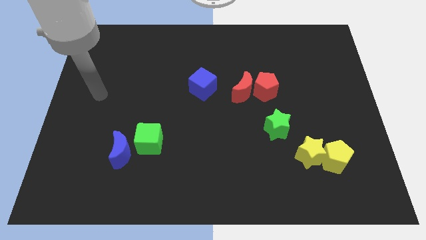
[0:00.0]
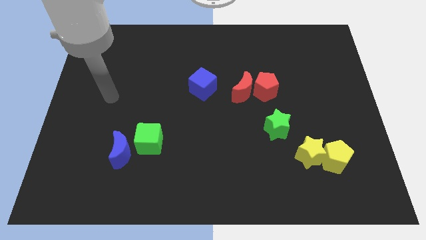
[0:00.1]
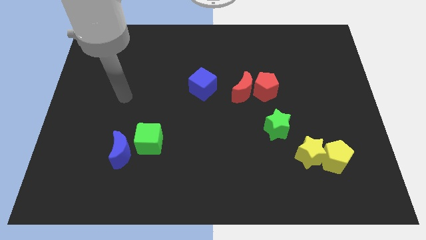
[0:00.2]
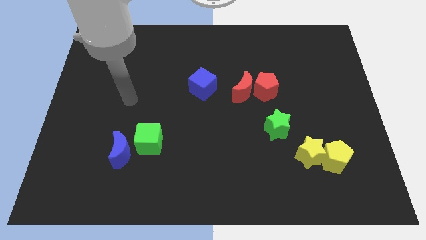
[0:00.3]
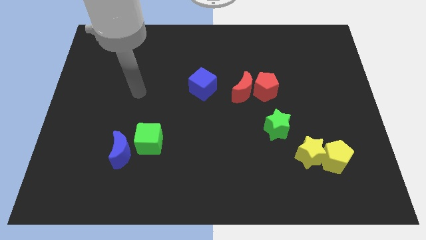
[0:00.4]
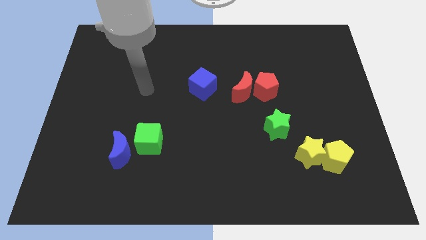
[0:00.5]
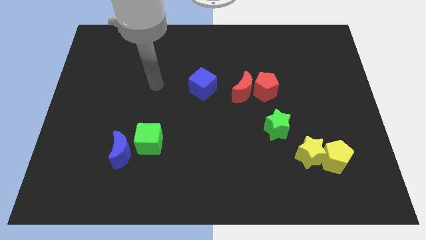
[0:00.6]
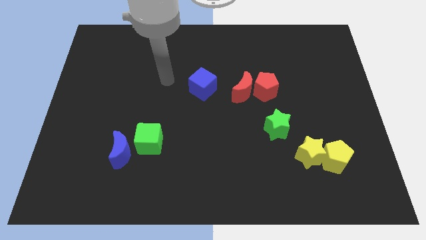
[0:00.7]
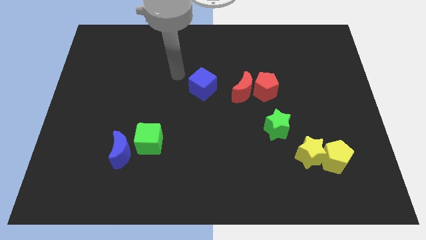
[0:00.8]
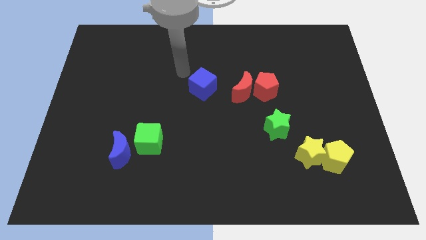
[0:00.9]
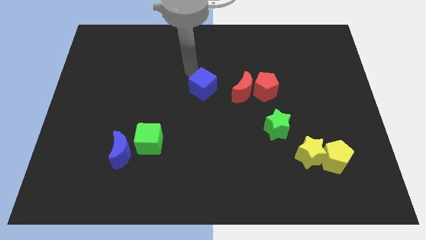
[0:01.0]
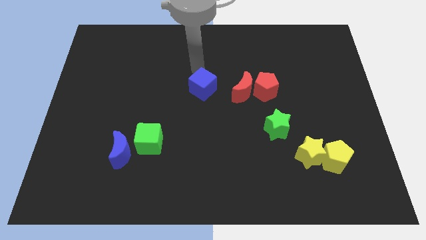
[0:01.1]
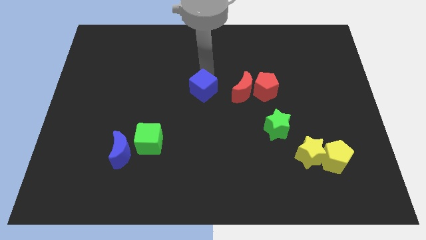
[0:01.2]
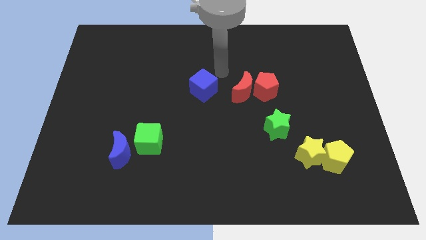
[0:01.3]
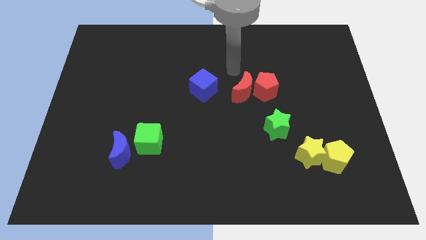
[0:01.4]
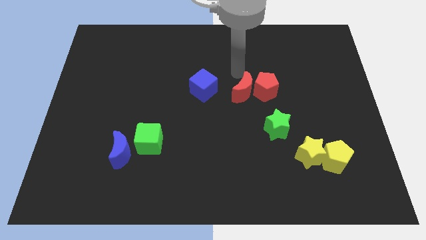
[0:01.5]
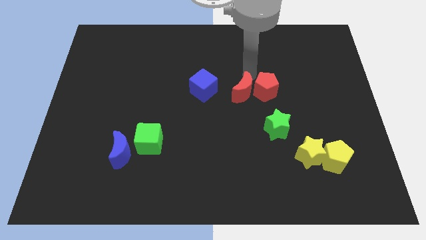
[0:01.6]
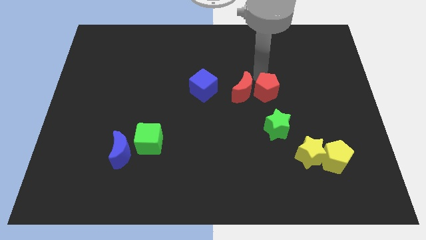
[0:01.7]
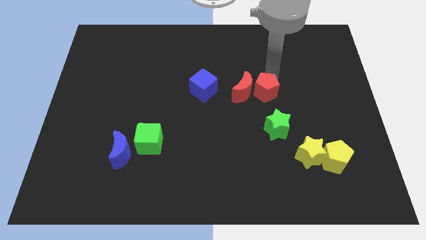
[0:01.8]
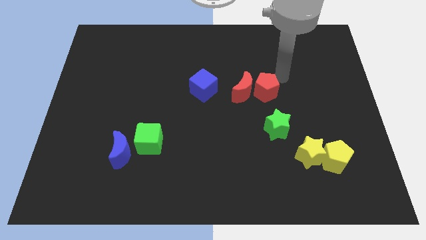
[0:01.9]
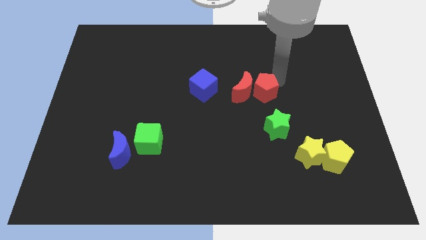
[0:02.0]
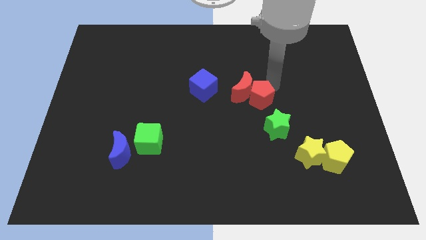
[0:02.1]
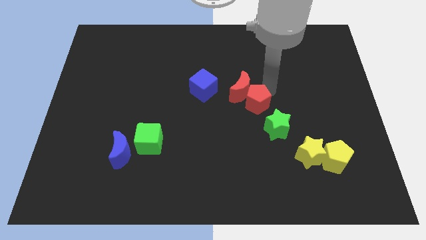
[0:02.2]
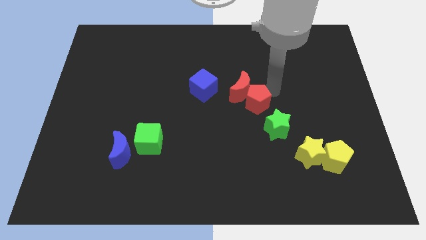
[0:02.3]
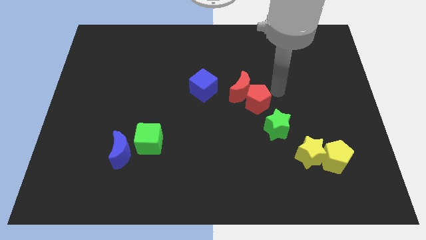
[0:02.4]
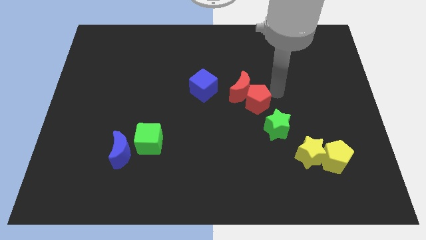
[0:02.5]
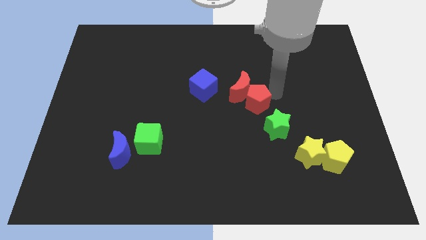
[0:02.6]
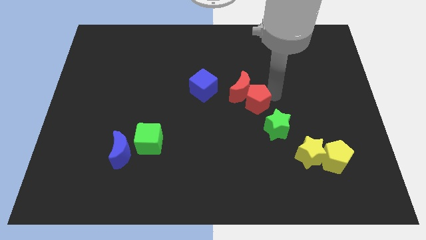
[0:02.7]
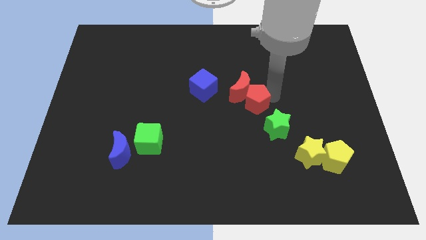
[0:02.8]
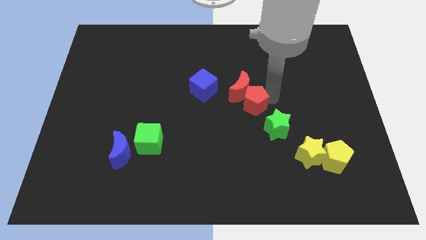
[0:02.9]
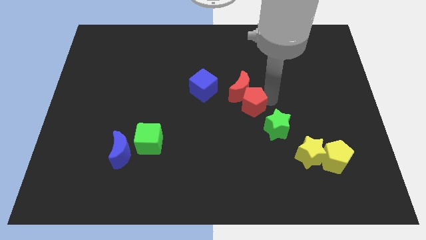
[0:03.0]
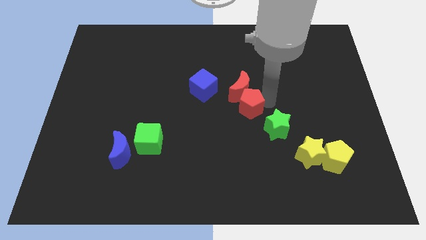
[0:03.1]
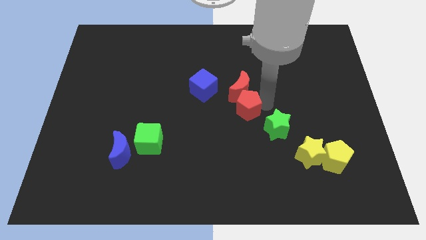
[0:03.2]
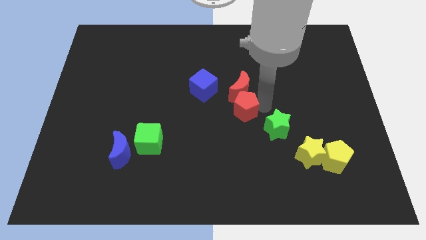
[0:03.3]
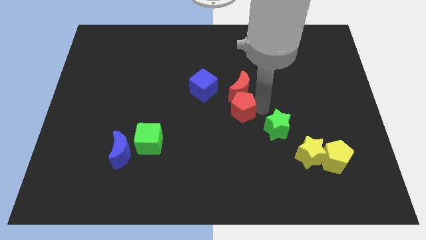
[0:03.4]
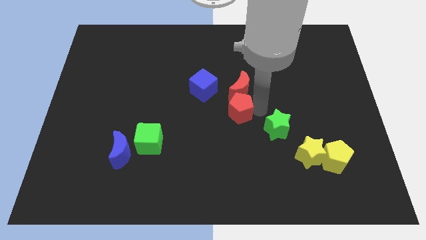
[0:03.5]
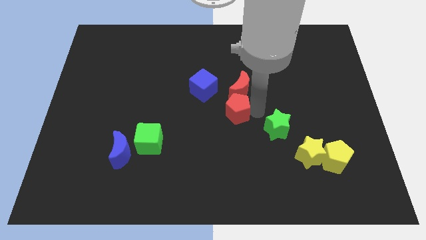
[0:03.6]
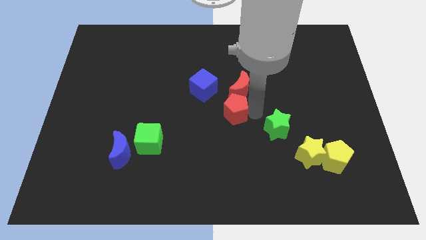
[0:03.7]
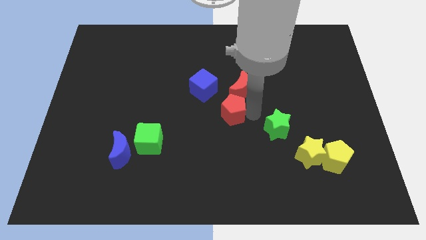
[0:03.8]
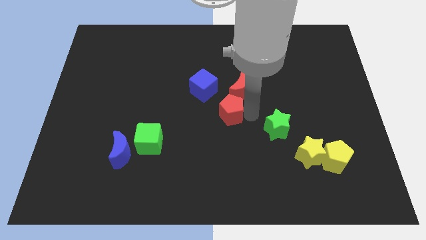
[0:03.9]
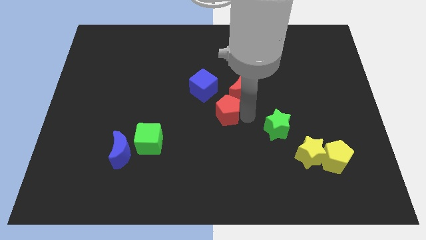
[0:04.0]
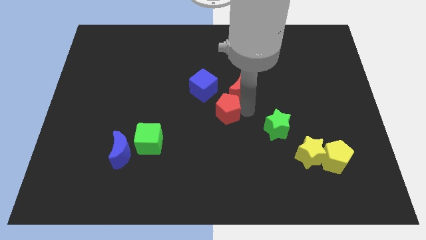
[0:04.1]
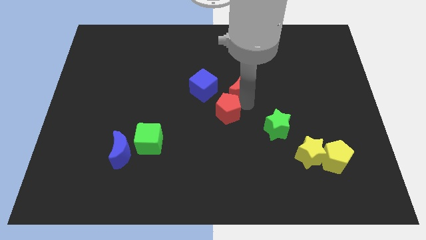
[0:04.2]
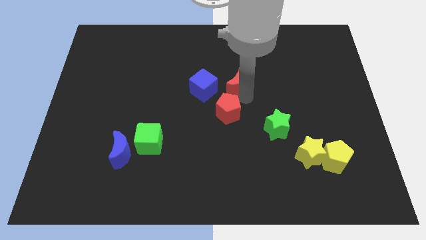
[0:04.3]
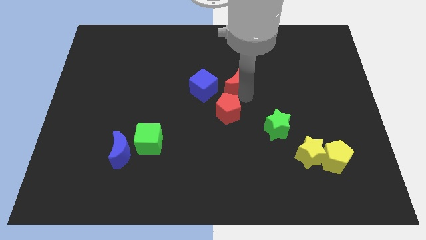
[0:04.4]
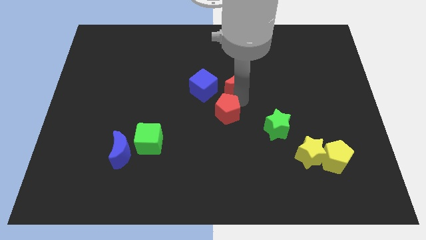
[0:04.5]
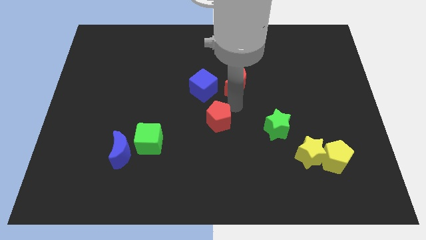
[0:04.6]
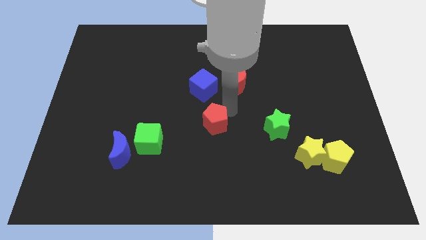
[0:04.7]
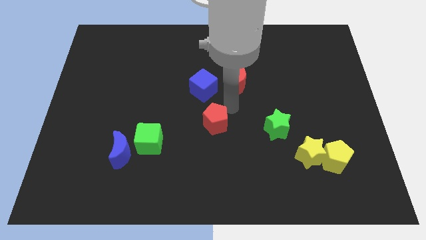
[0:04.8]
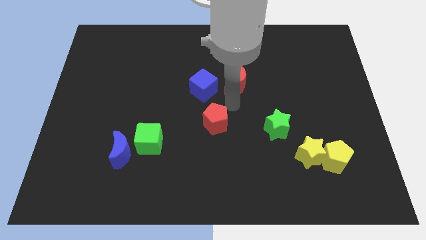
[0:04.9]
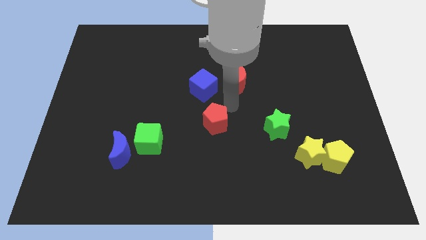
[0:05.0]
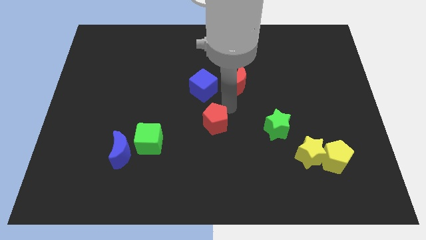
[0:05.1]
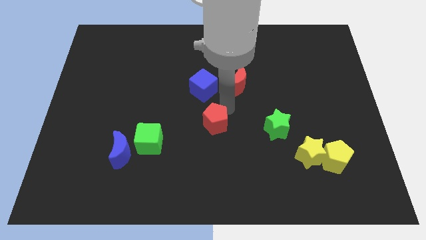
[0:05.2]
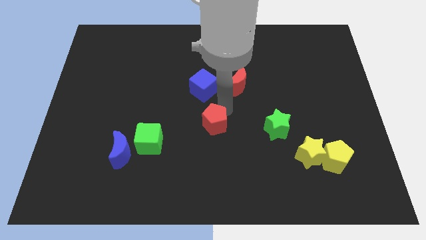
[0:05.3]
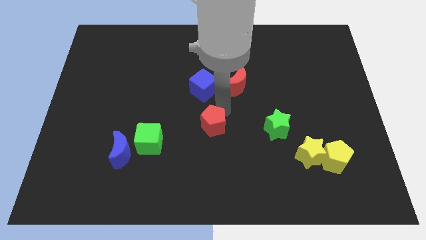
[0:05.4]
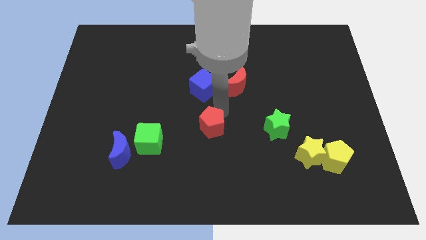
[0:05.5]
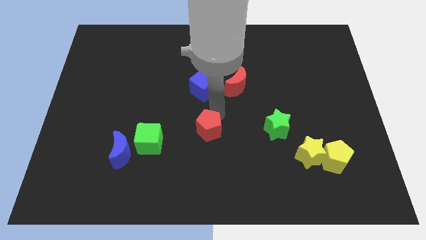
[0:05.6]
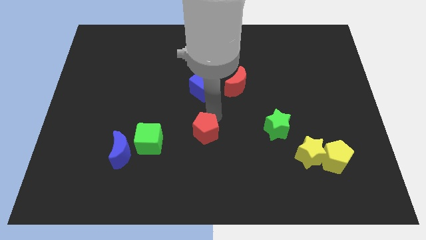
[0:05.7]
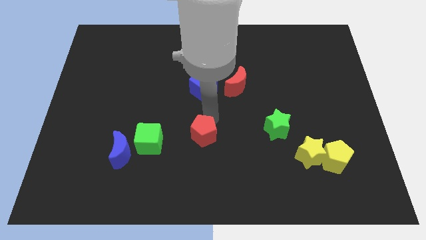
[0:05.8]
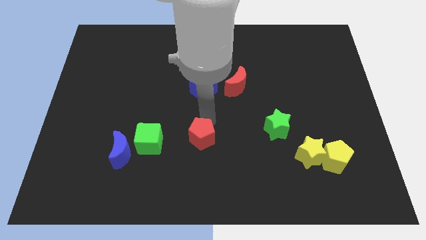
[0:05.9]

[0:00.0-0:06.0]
push the red pentagon downwards and left diagonally

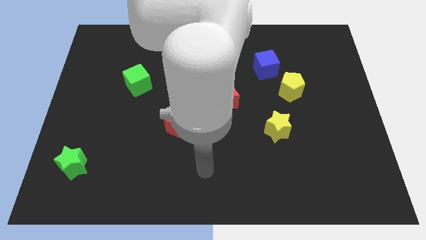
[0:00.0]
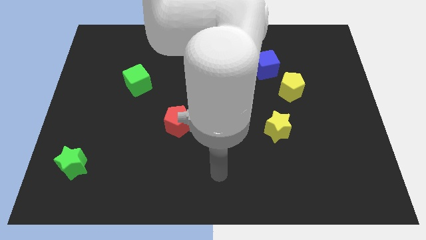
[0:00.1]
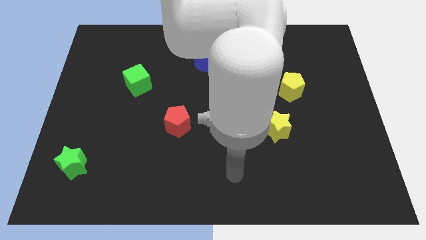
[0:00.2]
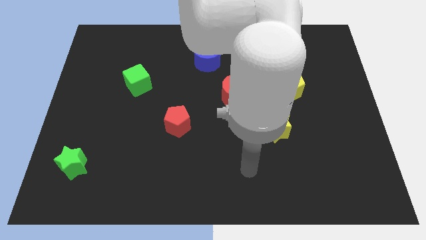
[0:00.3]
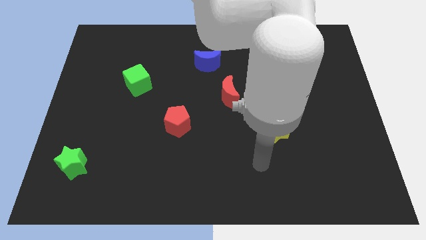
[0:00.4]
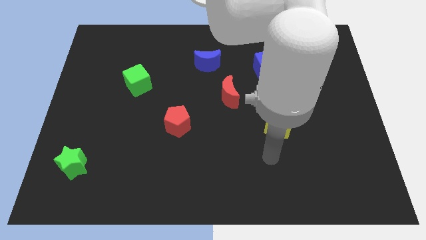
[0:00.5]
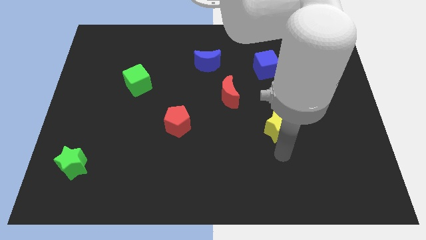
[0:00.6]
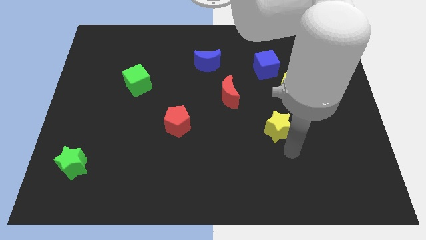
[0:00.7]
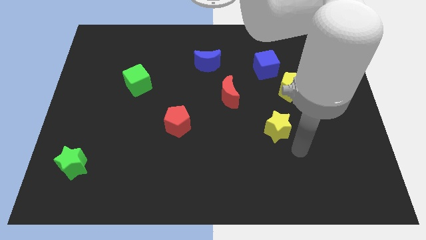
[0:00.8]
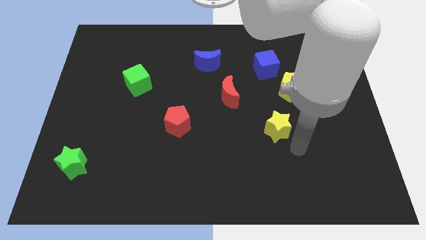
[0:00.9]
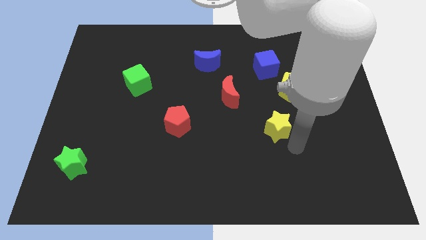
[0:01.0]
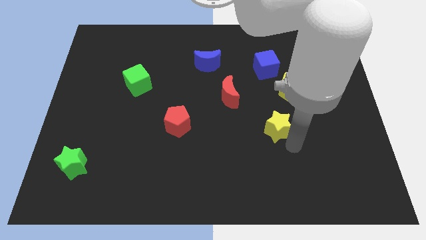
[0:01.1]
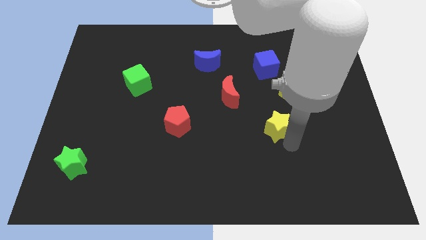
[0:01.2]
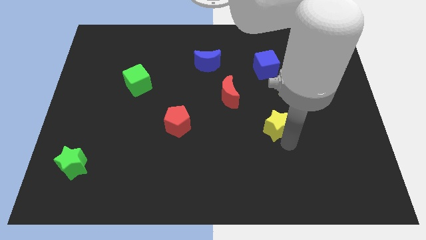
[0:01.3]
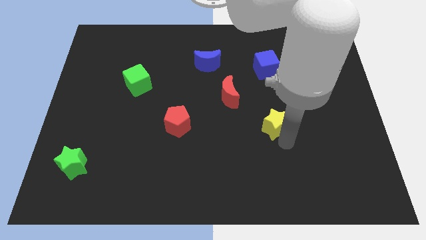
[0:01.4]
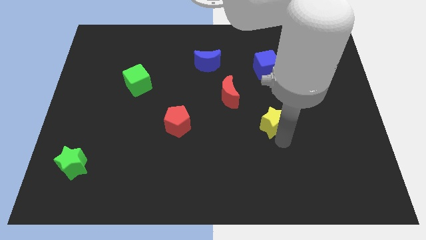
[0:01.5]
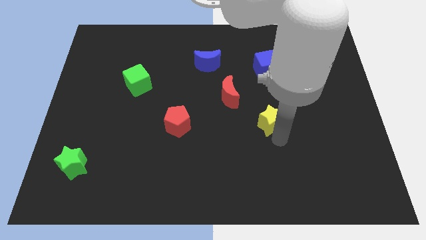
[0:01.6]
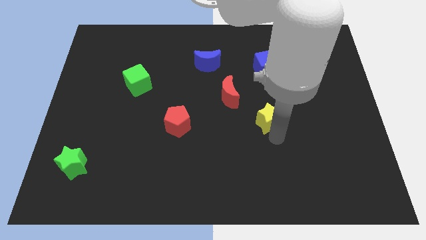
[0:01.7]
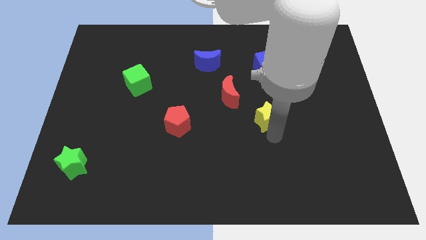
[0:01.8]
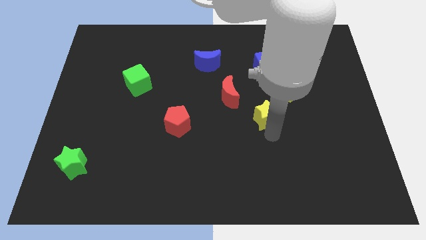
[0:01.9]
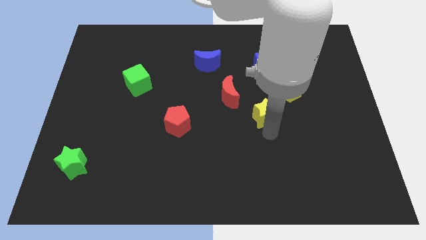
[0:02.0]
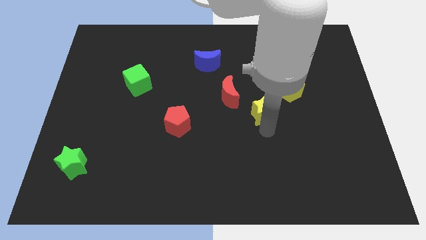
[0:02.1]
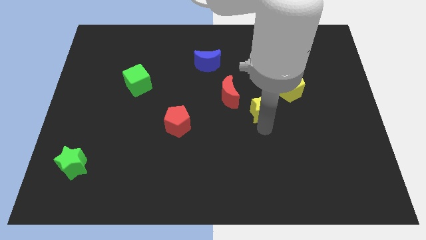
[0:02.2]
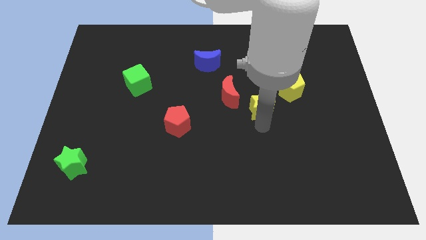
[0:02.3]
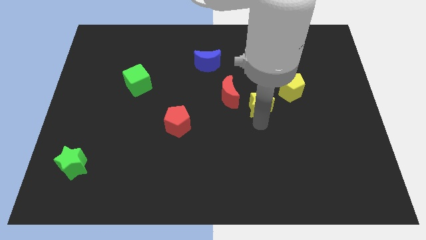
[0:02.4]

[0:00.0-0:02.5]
slide the yellow star a little upwards and to the left diagonally
